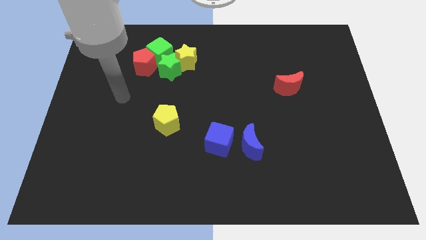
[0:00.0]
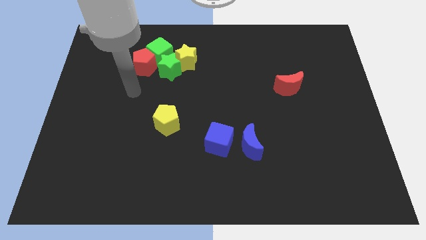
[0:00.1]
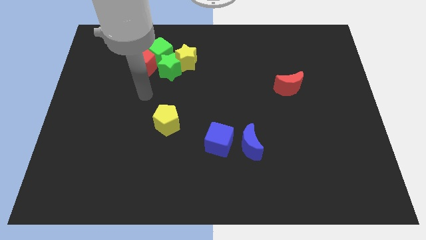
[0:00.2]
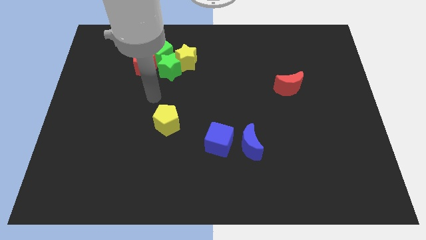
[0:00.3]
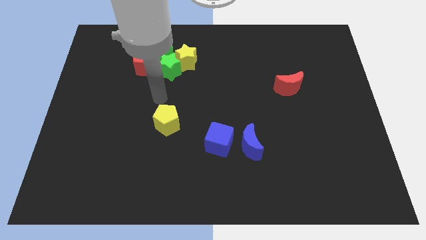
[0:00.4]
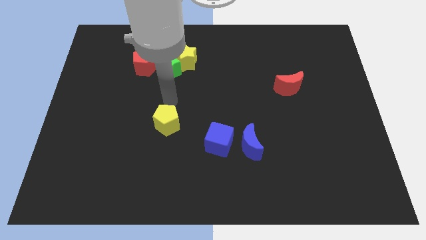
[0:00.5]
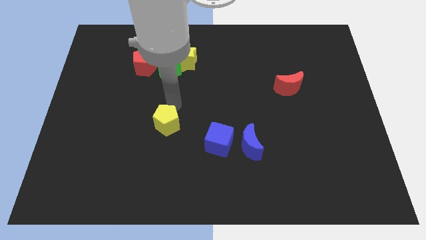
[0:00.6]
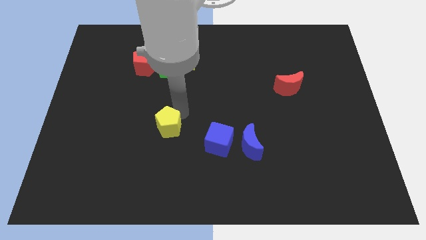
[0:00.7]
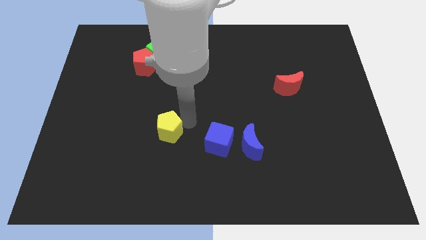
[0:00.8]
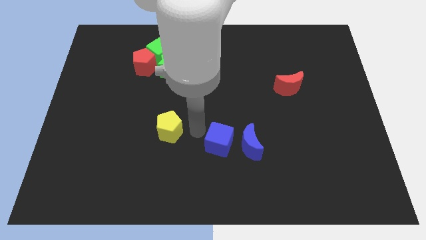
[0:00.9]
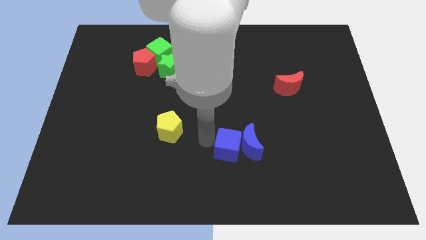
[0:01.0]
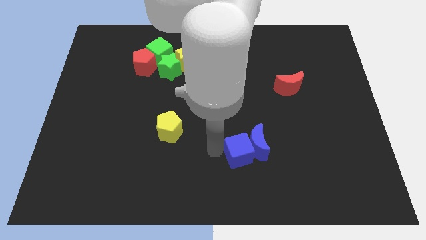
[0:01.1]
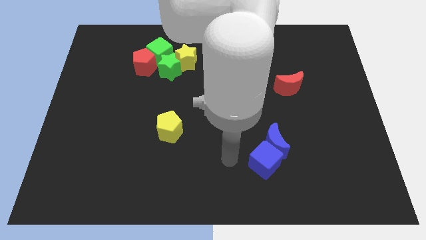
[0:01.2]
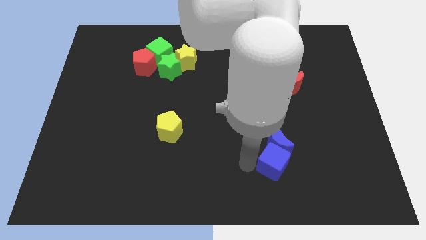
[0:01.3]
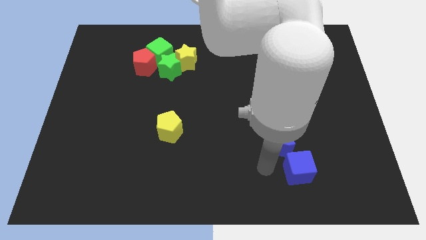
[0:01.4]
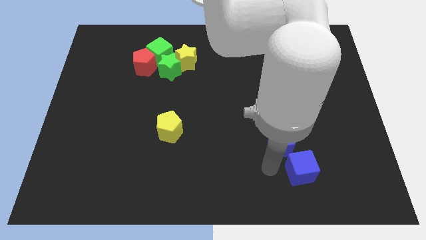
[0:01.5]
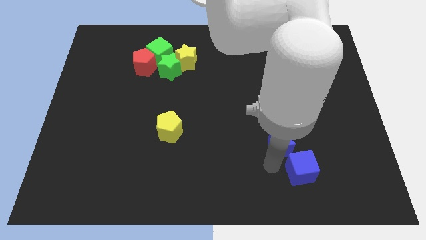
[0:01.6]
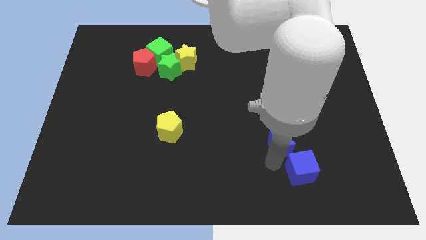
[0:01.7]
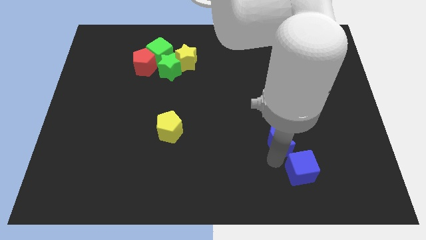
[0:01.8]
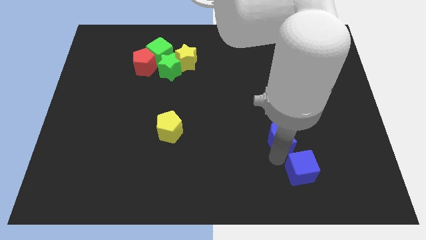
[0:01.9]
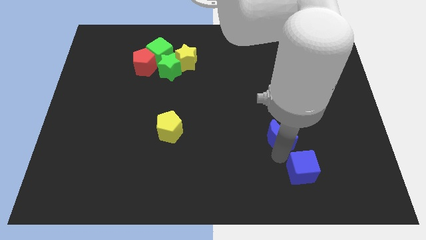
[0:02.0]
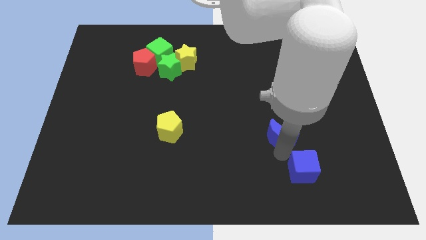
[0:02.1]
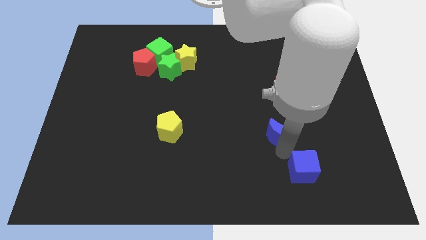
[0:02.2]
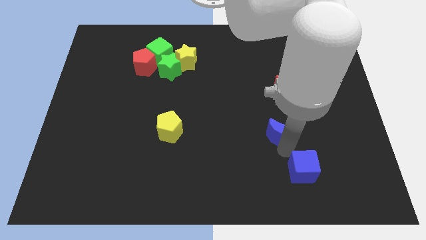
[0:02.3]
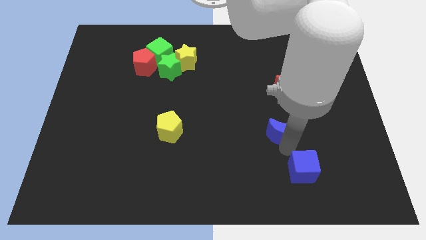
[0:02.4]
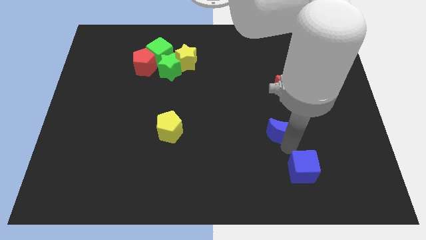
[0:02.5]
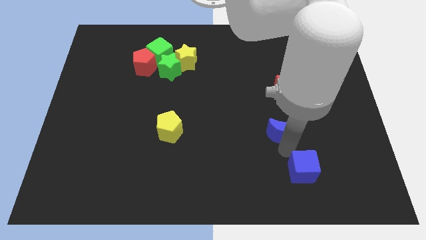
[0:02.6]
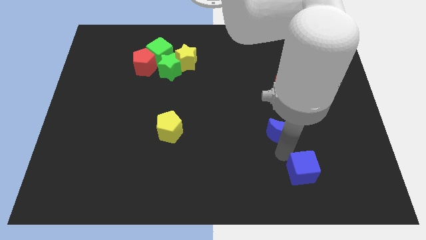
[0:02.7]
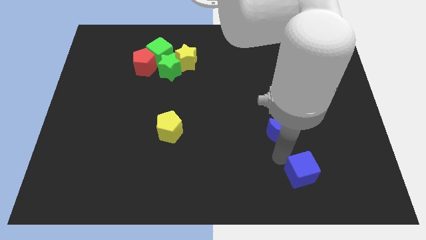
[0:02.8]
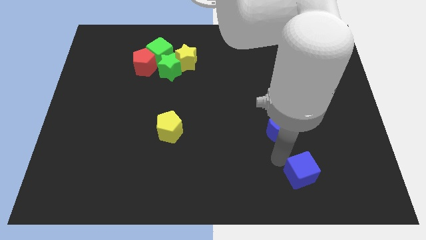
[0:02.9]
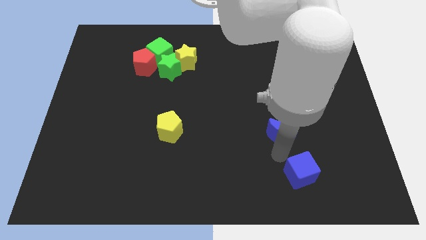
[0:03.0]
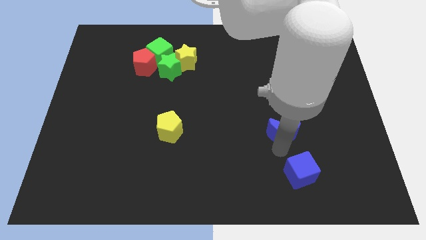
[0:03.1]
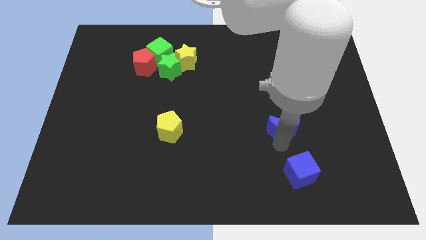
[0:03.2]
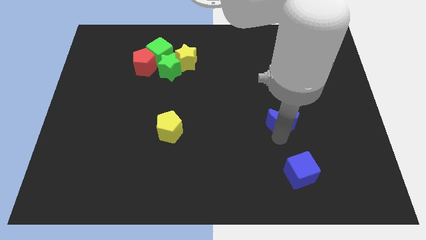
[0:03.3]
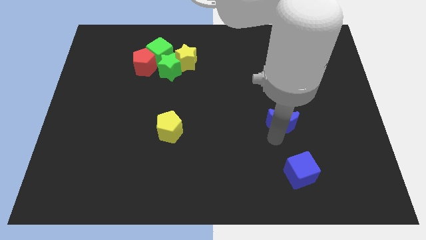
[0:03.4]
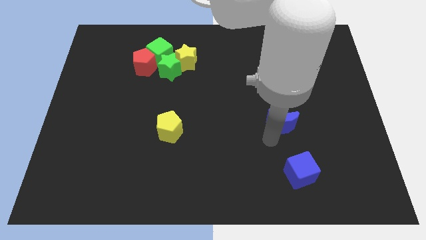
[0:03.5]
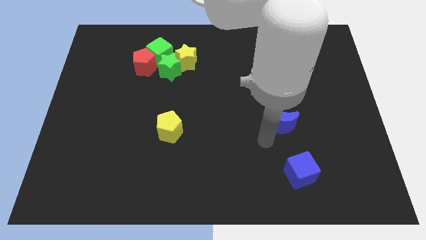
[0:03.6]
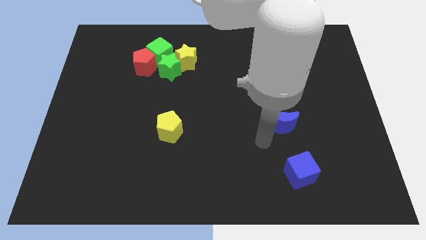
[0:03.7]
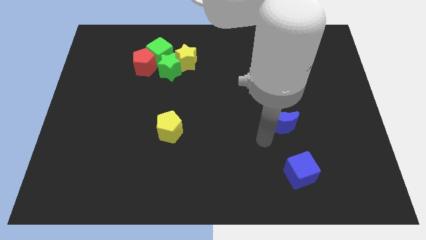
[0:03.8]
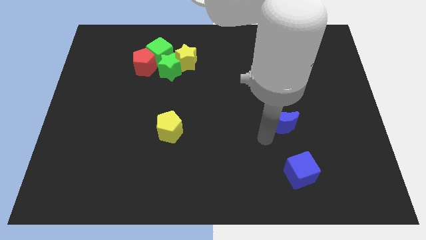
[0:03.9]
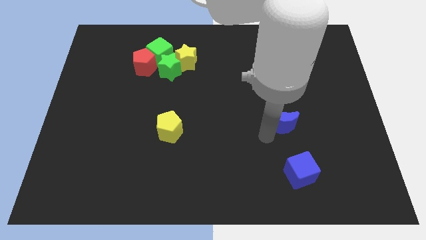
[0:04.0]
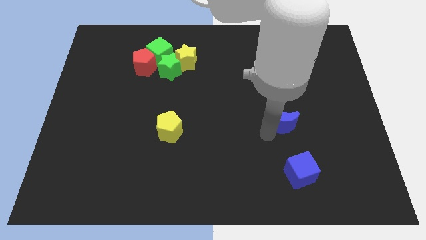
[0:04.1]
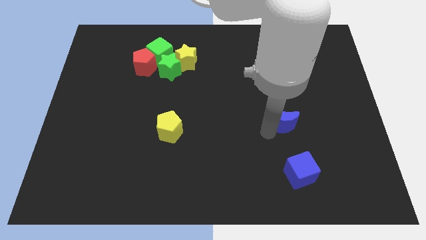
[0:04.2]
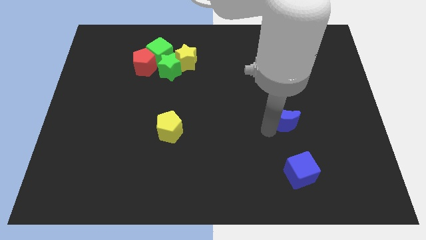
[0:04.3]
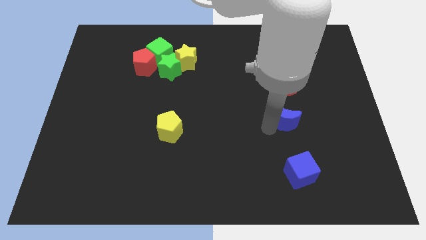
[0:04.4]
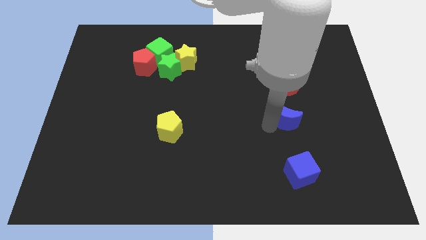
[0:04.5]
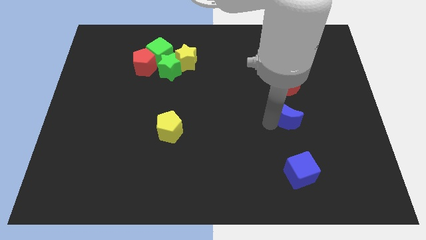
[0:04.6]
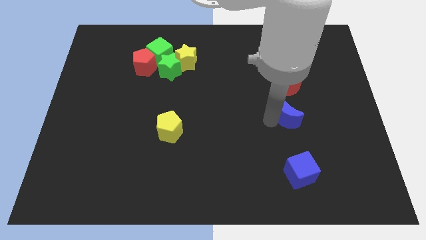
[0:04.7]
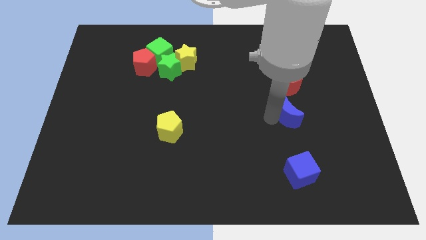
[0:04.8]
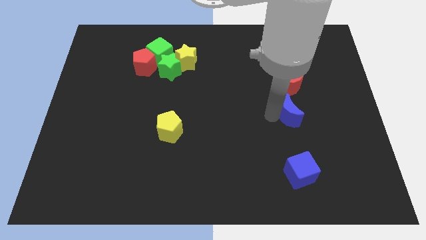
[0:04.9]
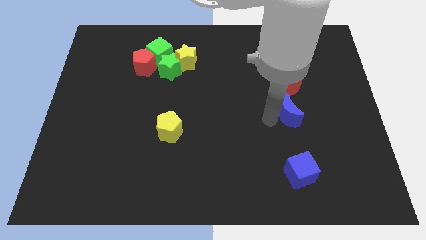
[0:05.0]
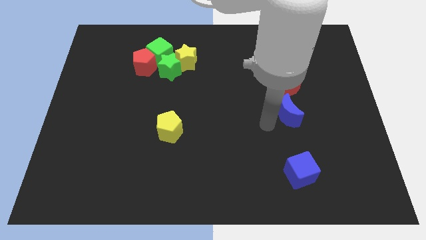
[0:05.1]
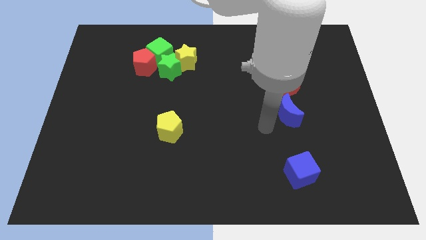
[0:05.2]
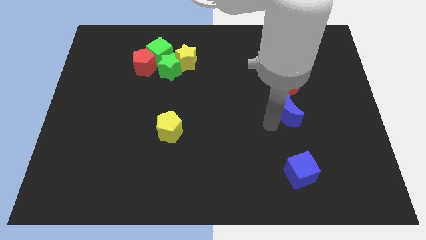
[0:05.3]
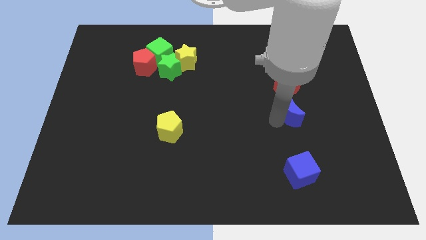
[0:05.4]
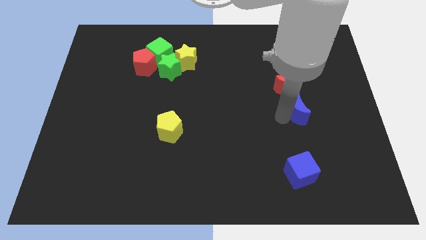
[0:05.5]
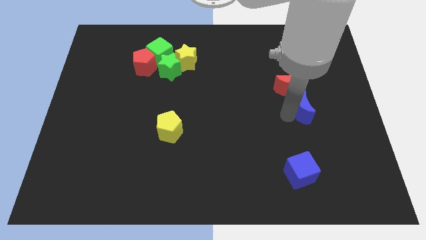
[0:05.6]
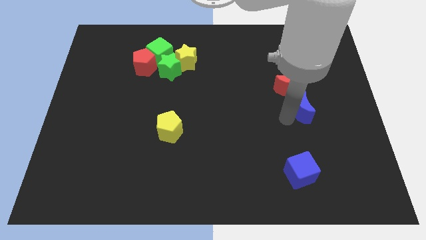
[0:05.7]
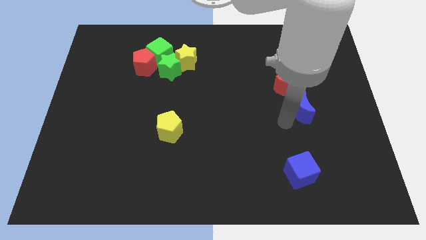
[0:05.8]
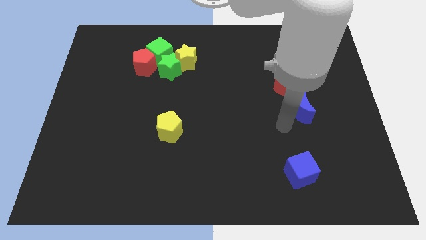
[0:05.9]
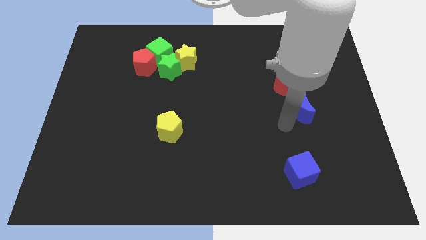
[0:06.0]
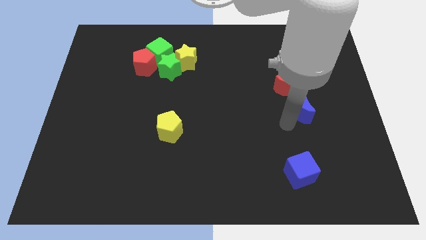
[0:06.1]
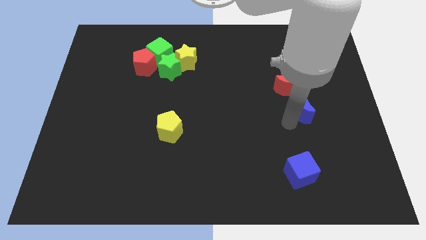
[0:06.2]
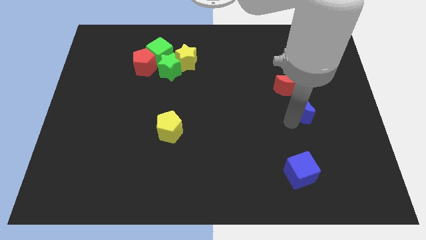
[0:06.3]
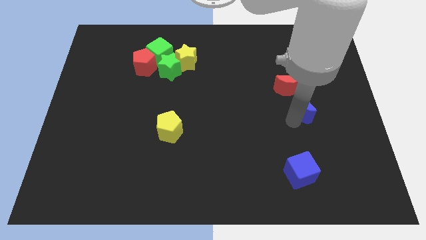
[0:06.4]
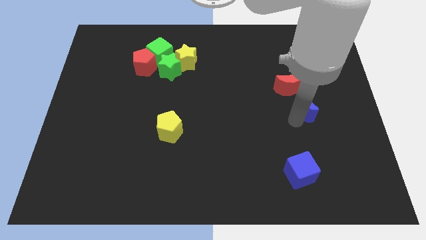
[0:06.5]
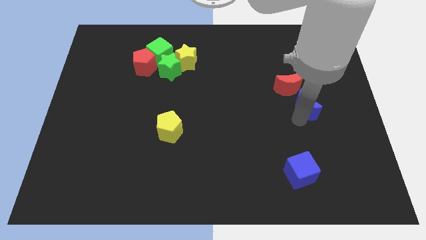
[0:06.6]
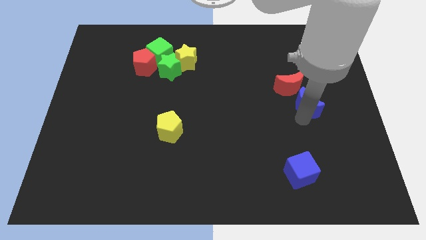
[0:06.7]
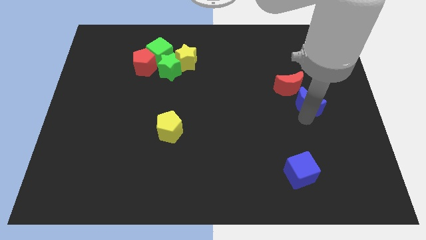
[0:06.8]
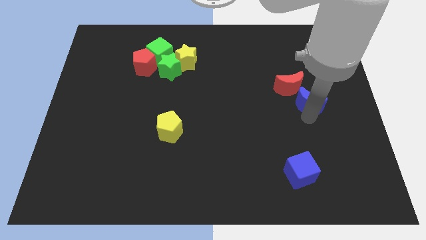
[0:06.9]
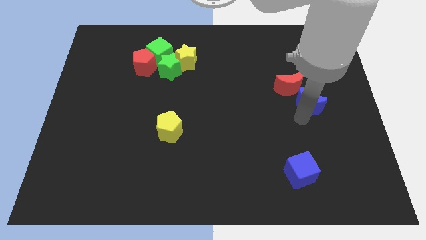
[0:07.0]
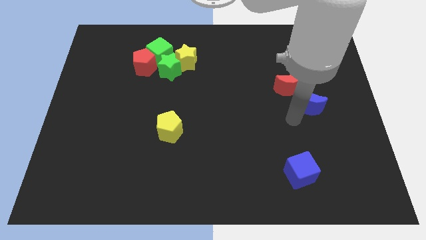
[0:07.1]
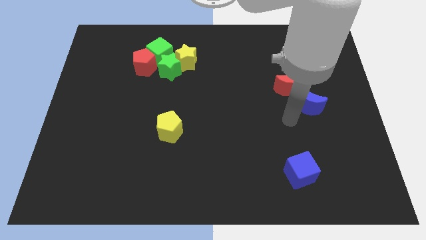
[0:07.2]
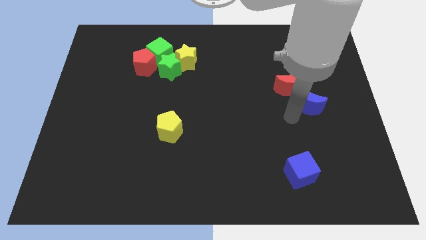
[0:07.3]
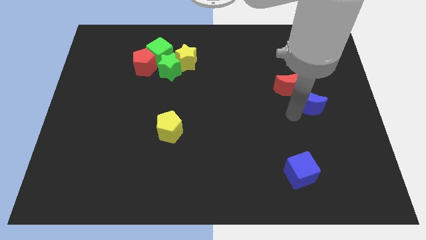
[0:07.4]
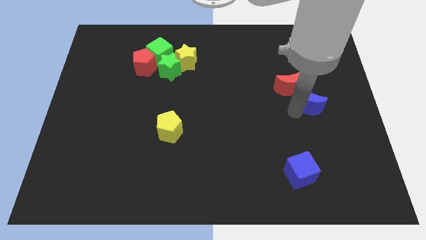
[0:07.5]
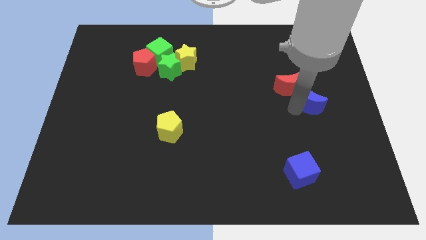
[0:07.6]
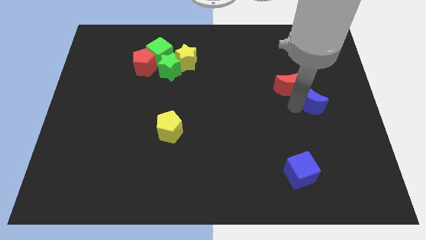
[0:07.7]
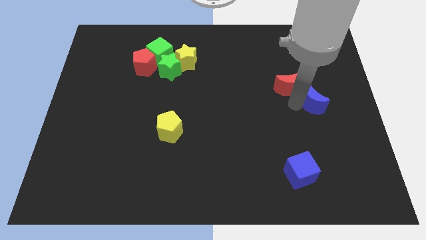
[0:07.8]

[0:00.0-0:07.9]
push the blue moon just right of the red moon

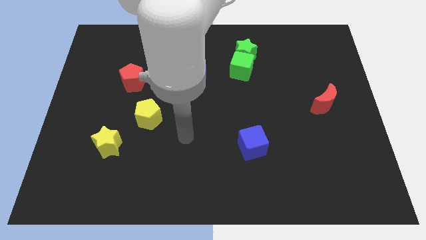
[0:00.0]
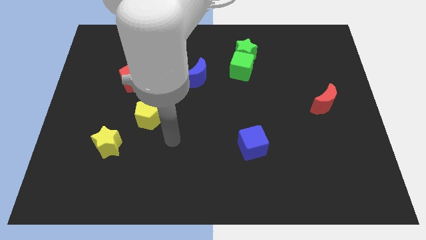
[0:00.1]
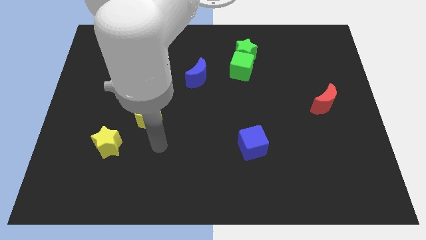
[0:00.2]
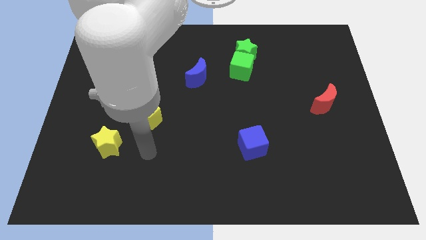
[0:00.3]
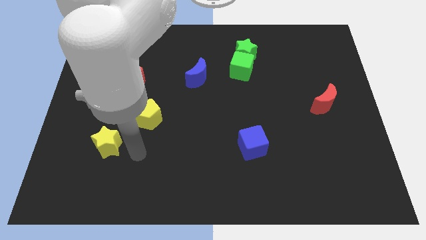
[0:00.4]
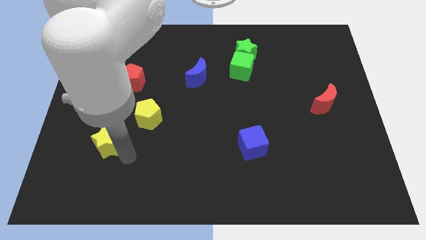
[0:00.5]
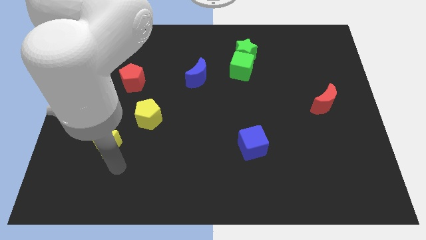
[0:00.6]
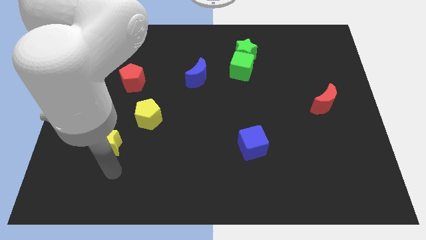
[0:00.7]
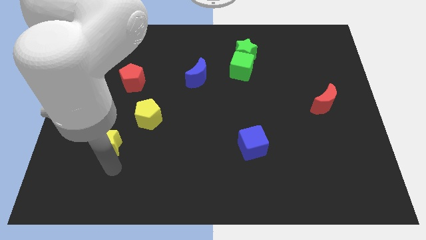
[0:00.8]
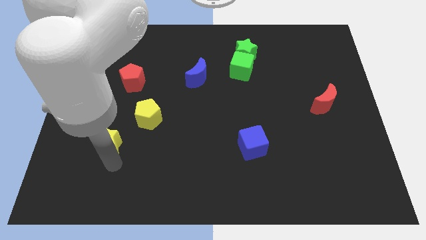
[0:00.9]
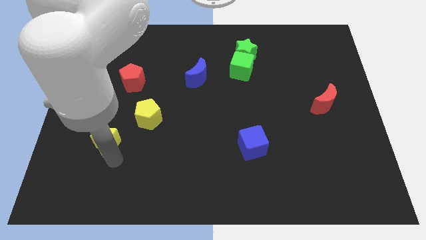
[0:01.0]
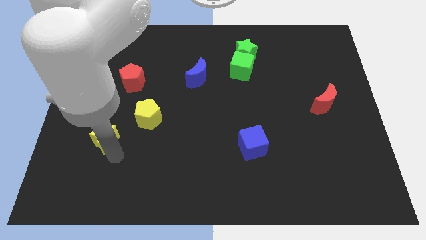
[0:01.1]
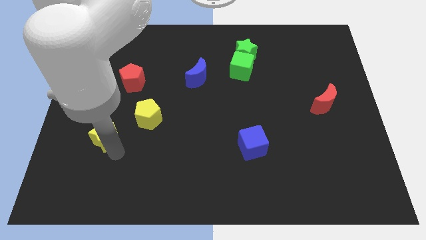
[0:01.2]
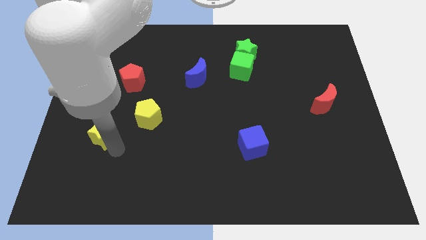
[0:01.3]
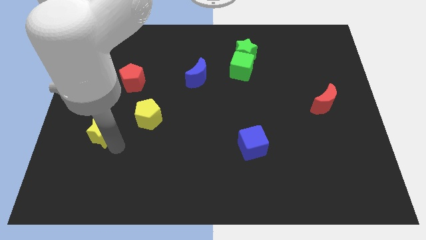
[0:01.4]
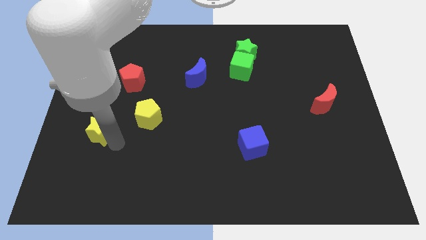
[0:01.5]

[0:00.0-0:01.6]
move the yellow star to the left side of the yellow pentagon
